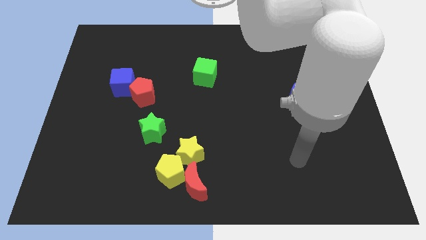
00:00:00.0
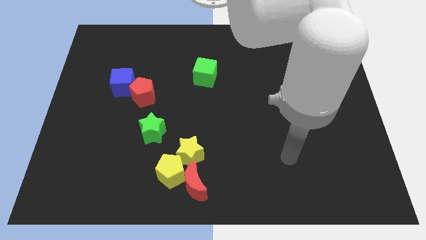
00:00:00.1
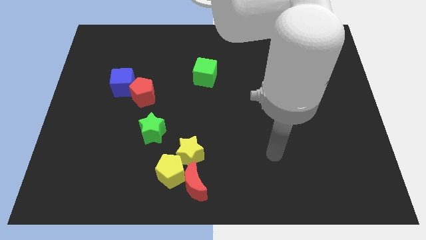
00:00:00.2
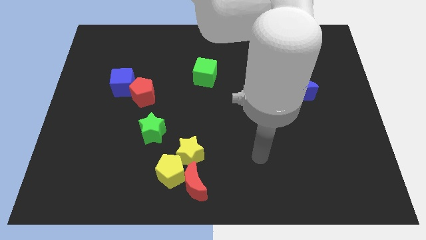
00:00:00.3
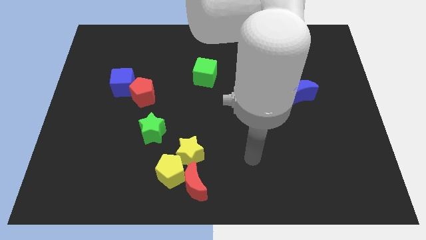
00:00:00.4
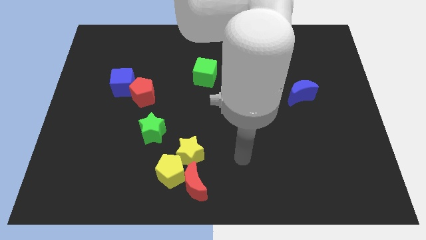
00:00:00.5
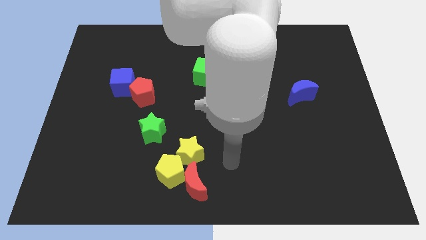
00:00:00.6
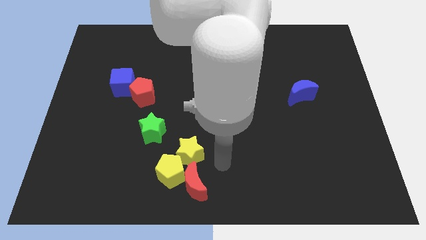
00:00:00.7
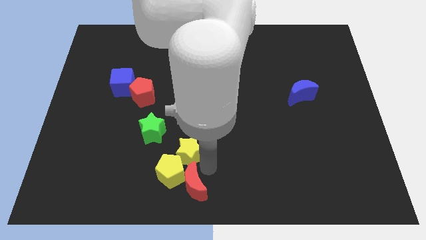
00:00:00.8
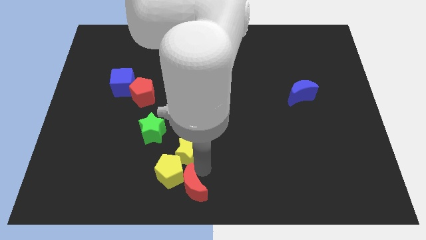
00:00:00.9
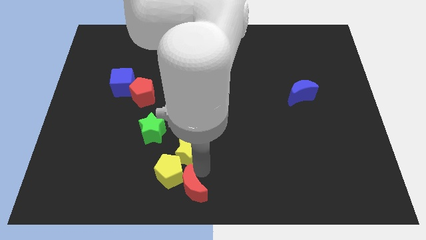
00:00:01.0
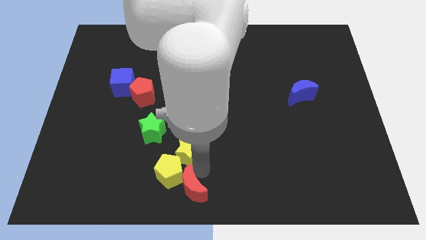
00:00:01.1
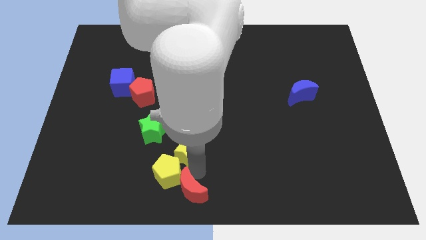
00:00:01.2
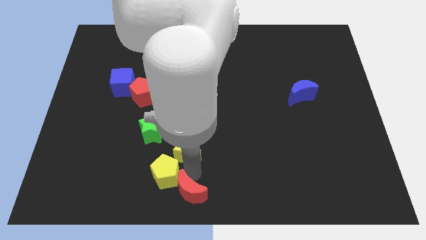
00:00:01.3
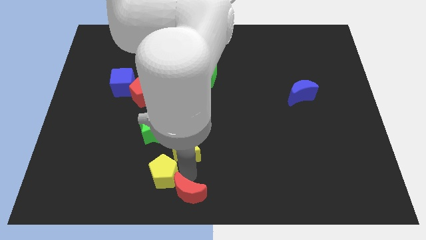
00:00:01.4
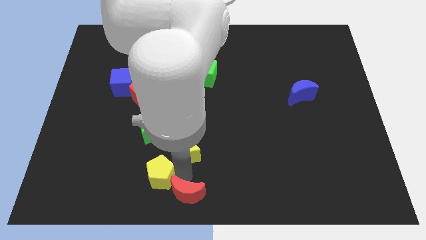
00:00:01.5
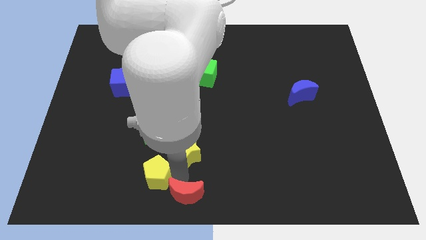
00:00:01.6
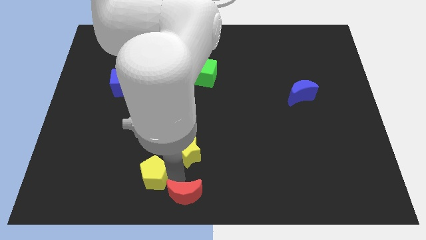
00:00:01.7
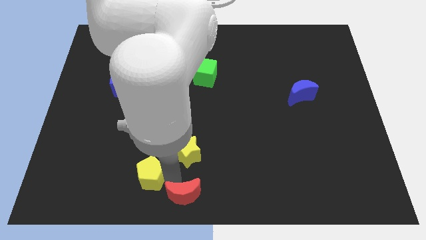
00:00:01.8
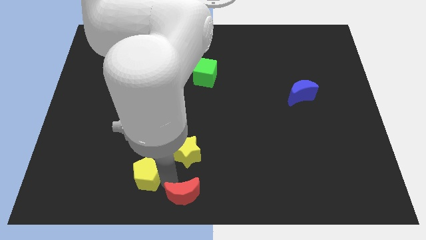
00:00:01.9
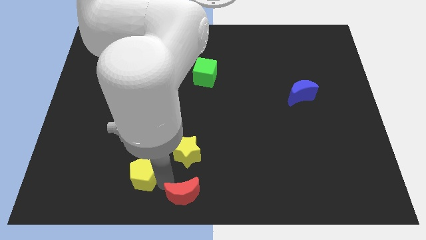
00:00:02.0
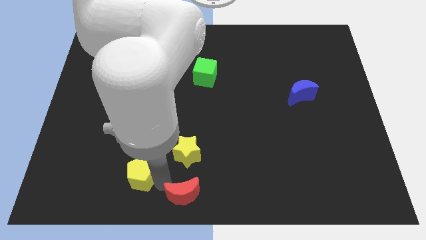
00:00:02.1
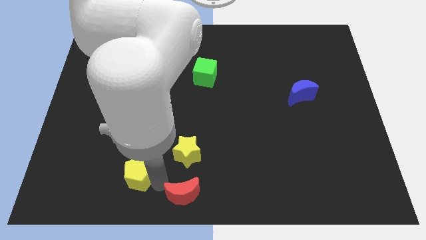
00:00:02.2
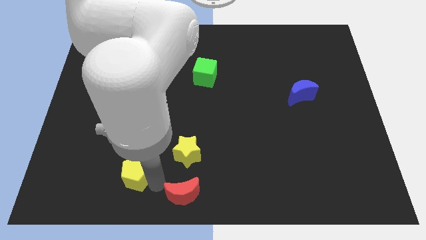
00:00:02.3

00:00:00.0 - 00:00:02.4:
move the yellow pentagon away from the red moon and yellow star

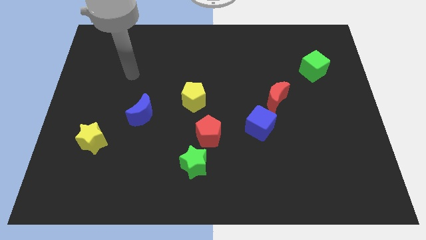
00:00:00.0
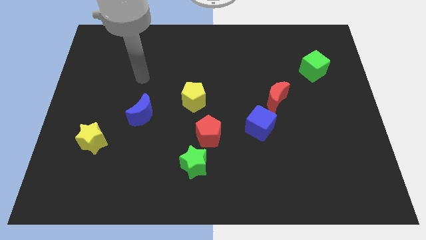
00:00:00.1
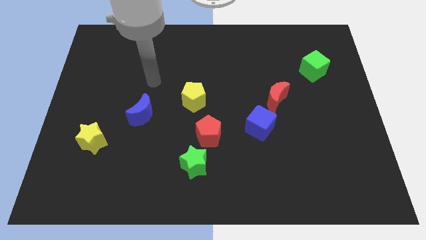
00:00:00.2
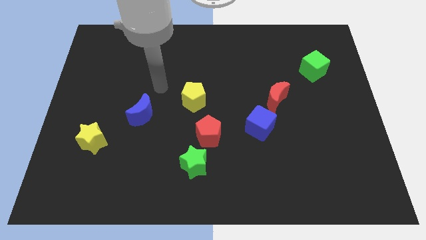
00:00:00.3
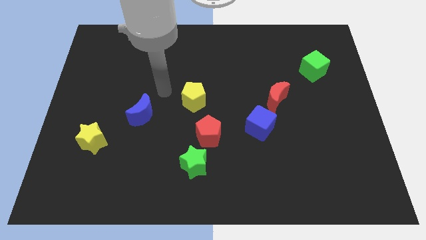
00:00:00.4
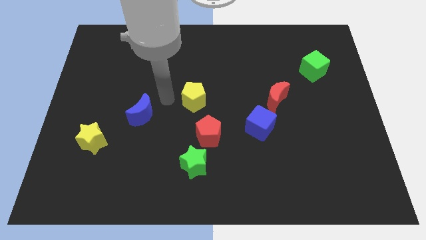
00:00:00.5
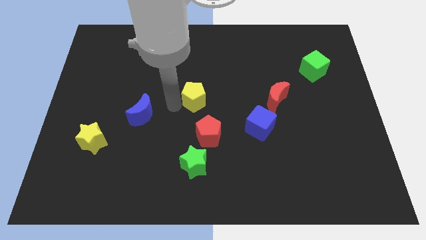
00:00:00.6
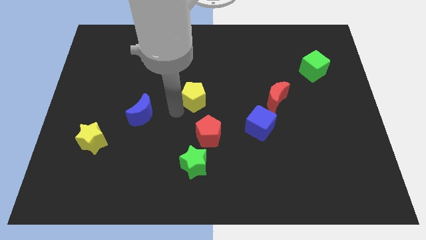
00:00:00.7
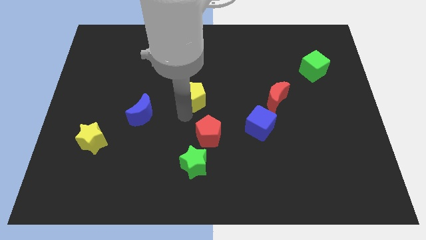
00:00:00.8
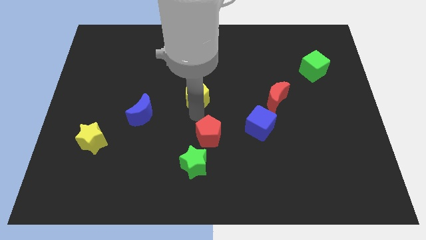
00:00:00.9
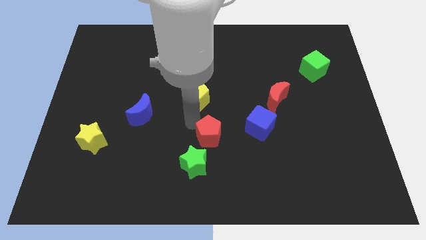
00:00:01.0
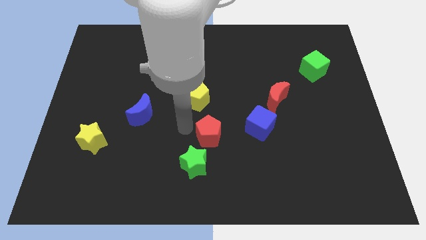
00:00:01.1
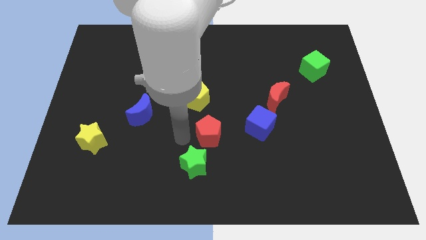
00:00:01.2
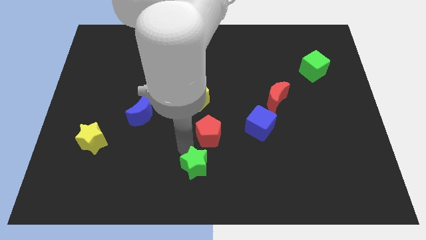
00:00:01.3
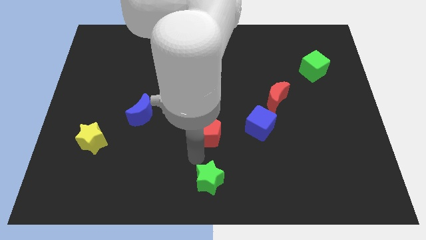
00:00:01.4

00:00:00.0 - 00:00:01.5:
separate the red pentagon from the green star

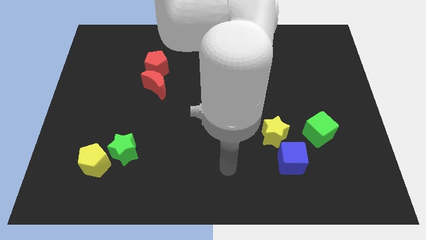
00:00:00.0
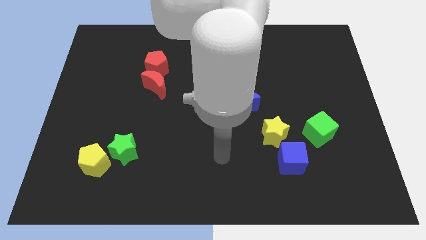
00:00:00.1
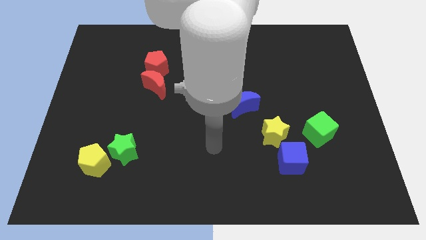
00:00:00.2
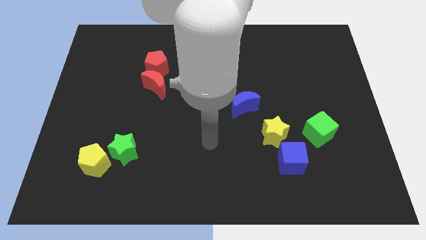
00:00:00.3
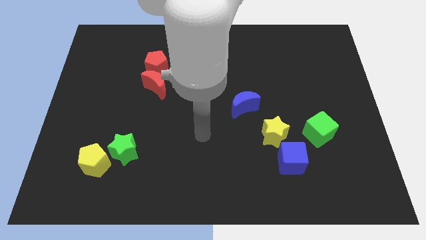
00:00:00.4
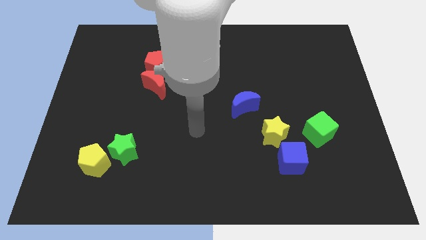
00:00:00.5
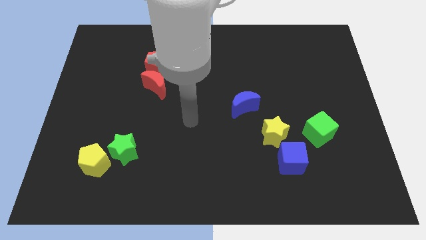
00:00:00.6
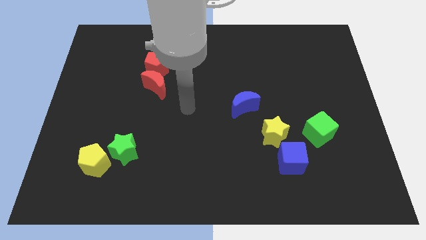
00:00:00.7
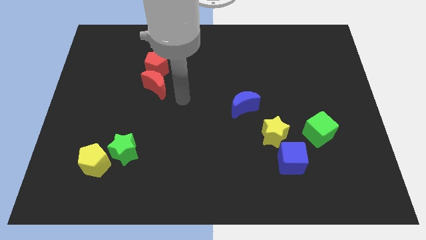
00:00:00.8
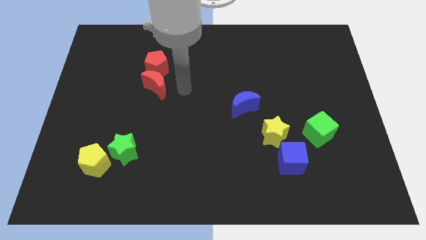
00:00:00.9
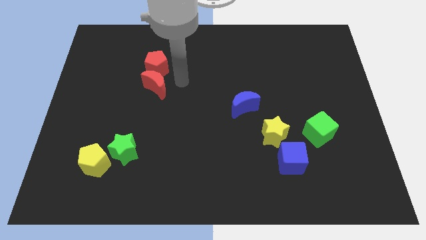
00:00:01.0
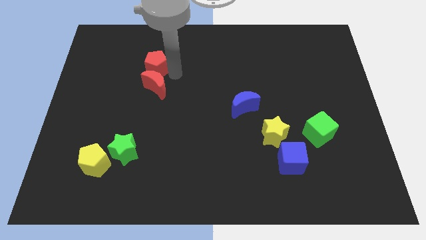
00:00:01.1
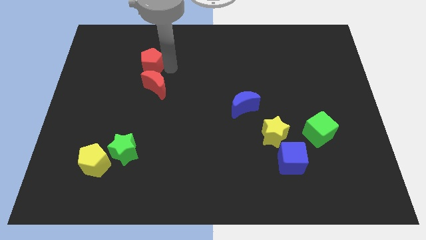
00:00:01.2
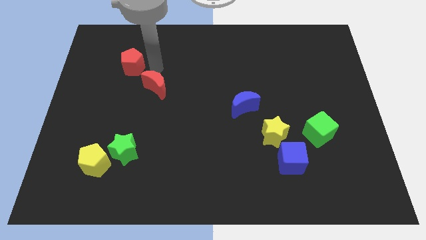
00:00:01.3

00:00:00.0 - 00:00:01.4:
pull the red moon apart from the red pentagon

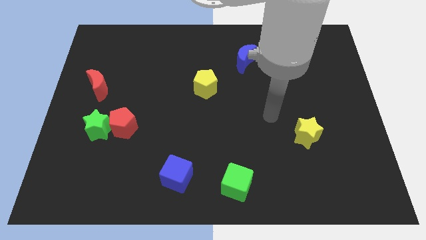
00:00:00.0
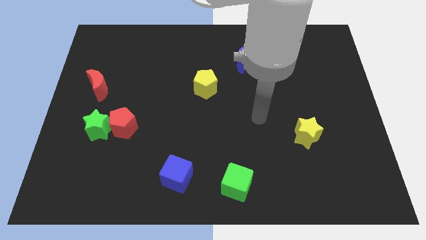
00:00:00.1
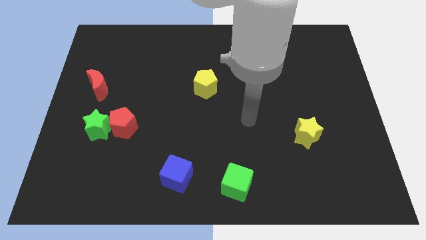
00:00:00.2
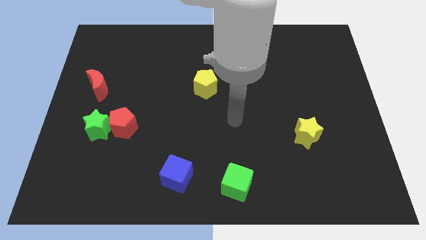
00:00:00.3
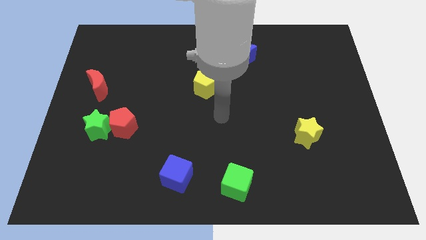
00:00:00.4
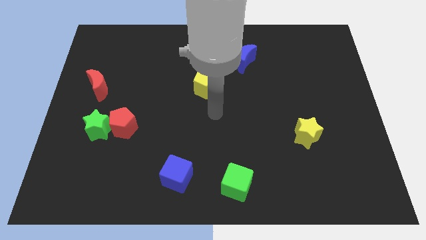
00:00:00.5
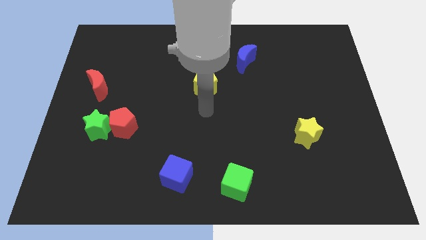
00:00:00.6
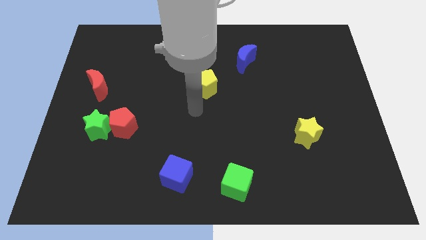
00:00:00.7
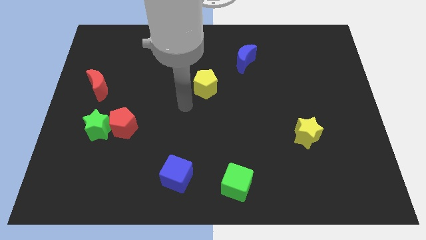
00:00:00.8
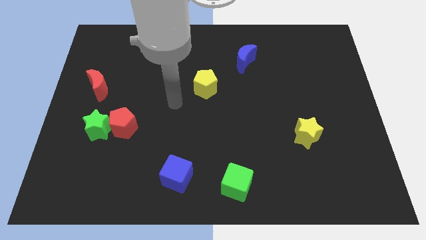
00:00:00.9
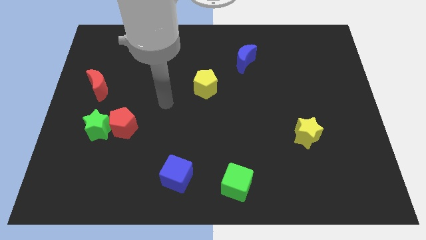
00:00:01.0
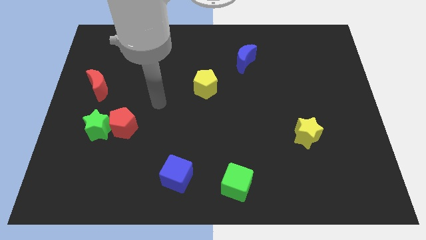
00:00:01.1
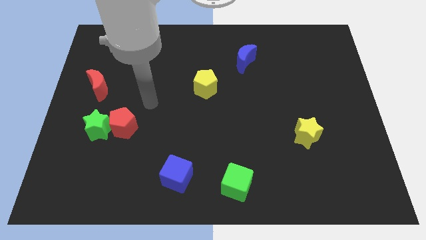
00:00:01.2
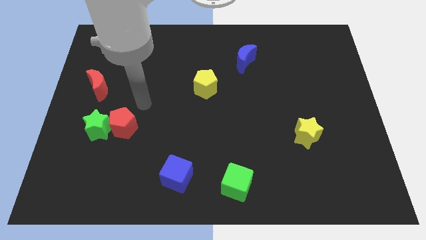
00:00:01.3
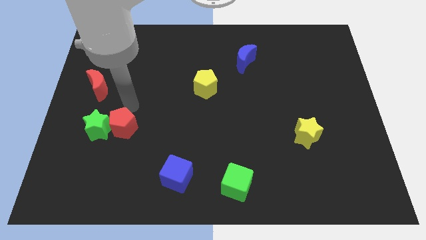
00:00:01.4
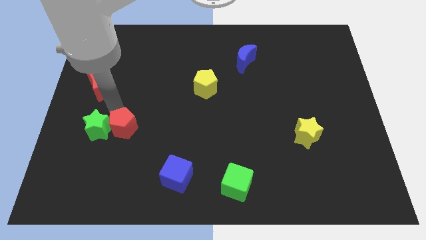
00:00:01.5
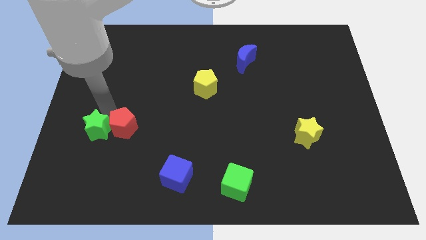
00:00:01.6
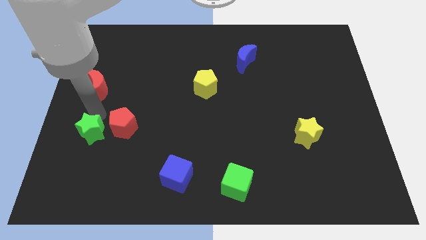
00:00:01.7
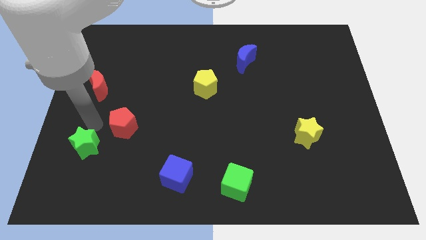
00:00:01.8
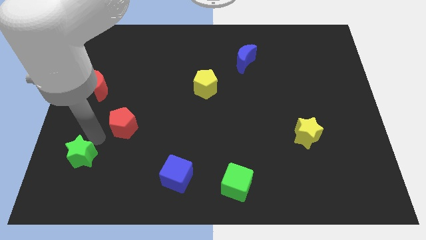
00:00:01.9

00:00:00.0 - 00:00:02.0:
move the red pentagon away from the green star

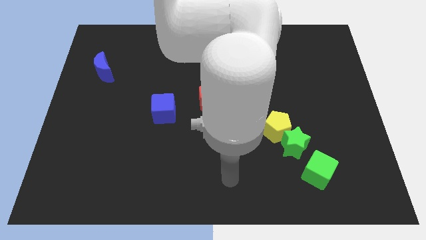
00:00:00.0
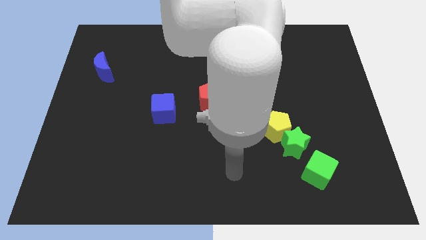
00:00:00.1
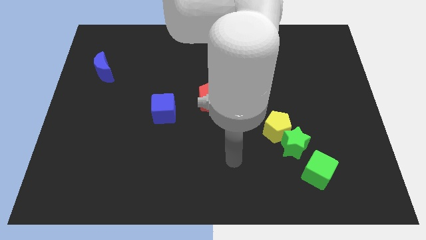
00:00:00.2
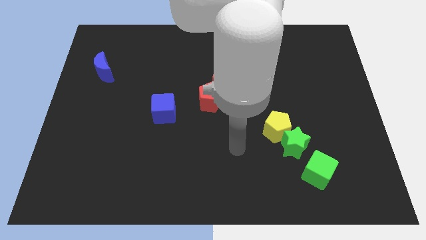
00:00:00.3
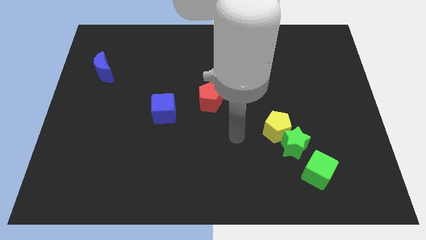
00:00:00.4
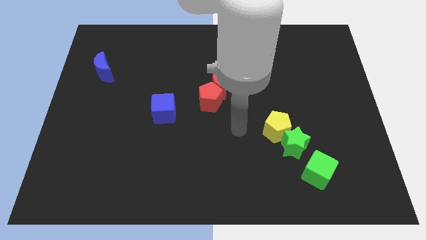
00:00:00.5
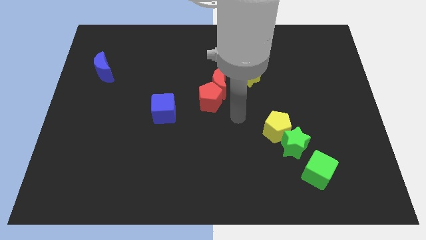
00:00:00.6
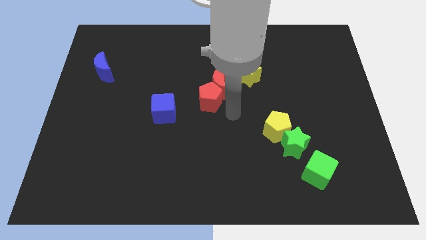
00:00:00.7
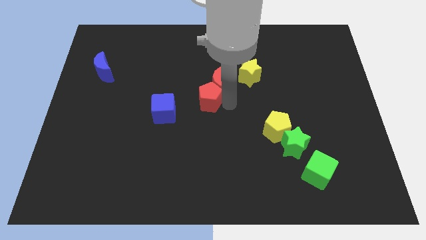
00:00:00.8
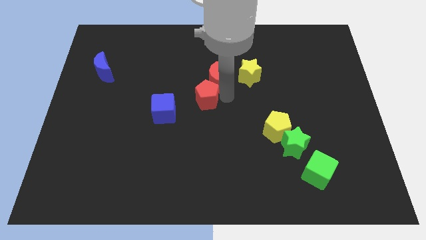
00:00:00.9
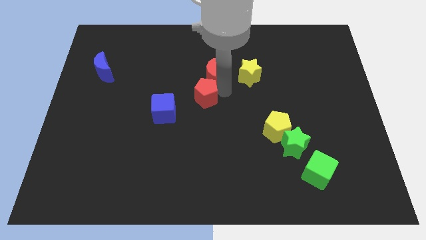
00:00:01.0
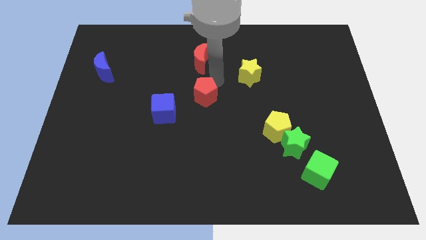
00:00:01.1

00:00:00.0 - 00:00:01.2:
separate the red pentagon from the red moon

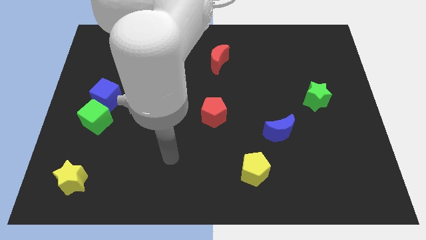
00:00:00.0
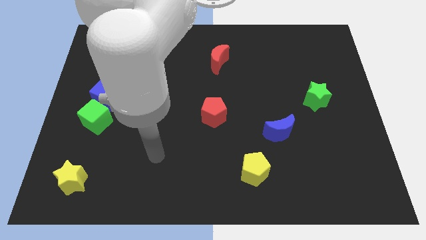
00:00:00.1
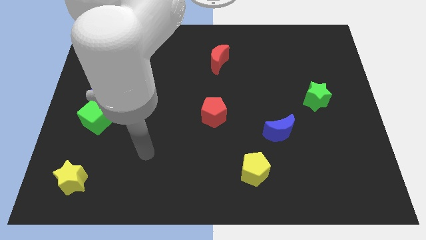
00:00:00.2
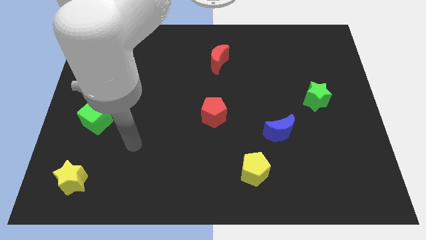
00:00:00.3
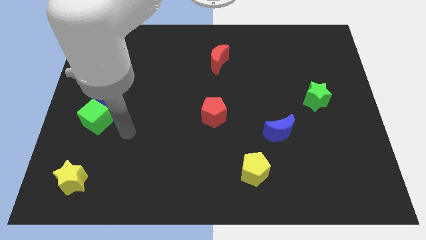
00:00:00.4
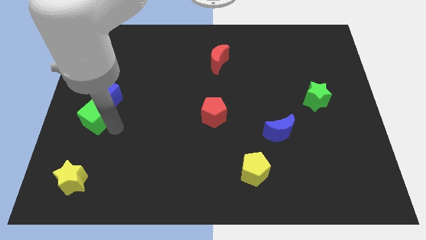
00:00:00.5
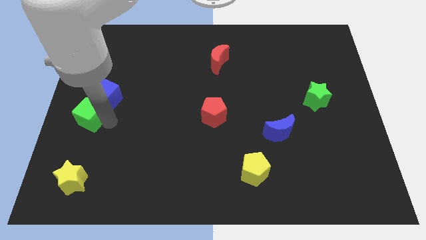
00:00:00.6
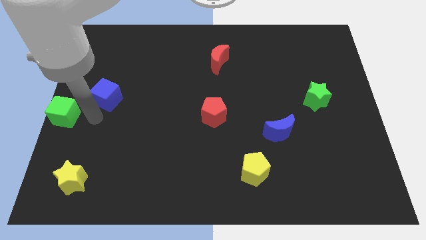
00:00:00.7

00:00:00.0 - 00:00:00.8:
pull the blue cube apart from the green cube

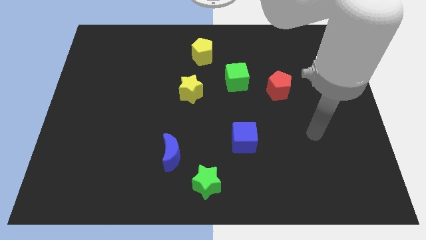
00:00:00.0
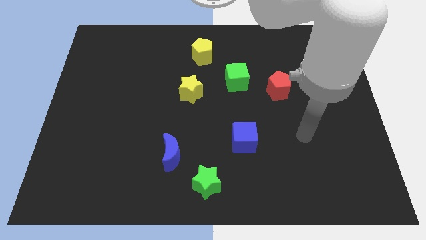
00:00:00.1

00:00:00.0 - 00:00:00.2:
separate the blue moon from the green star
